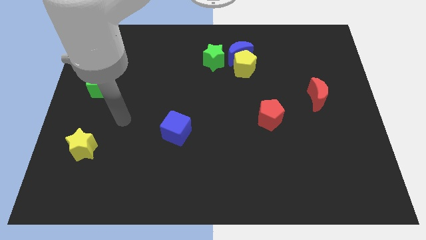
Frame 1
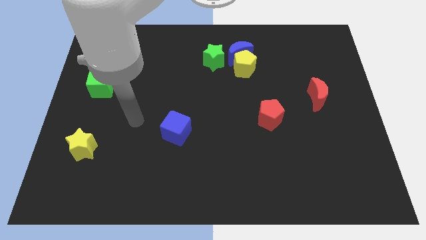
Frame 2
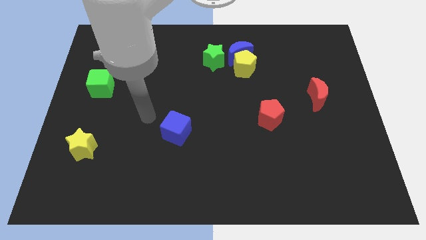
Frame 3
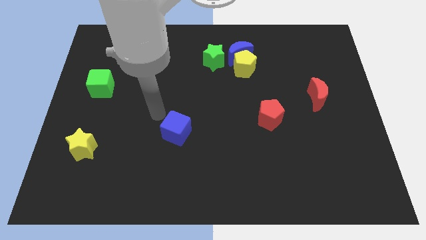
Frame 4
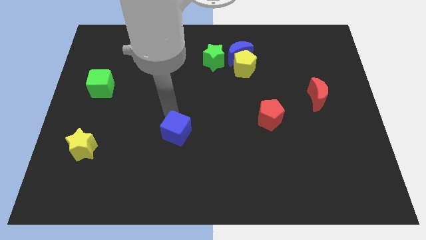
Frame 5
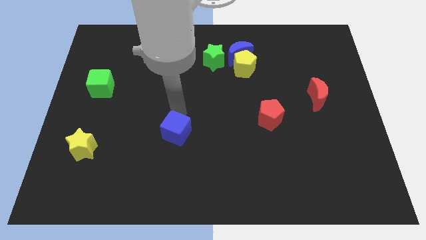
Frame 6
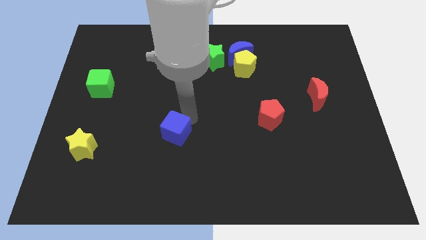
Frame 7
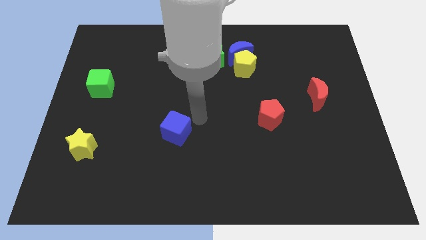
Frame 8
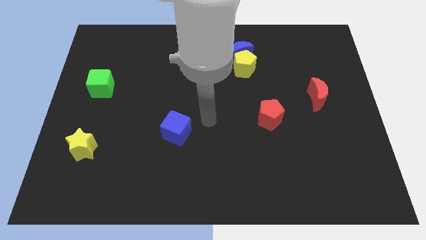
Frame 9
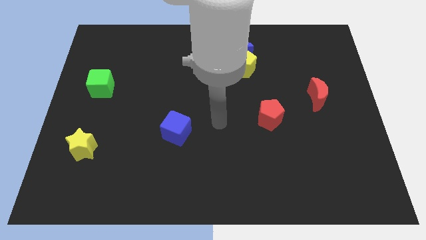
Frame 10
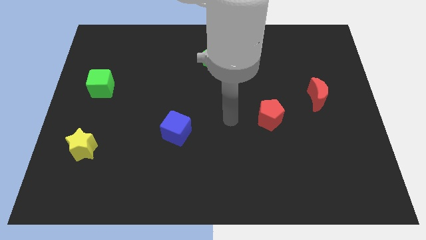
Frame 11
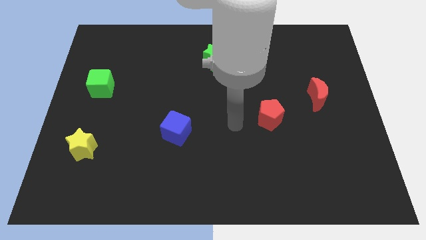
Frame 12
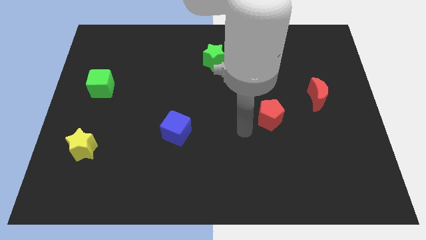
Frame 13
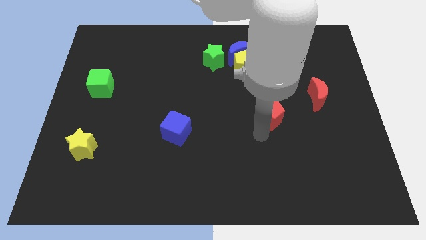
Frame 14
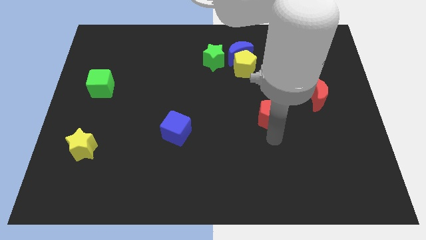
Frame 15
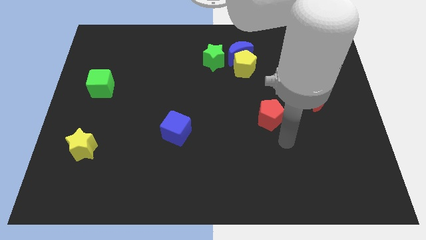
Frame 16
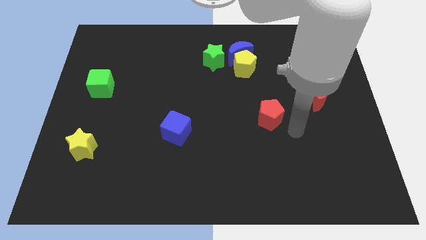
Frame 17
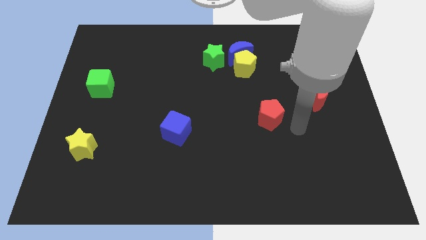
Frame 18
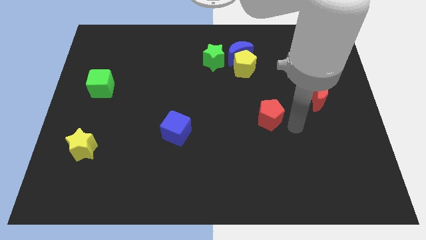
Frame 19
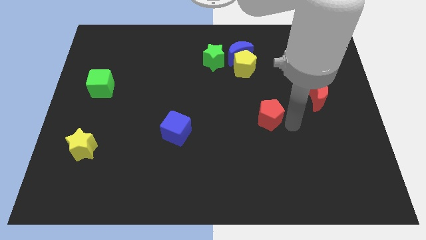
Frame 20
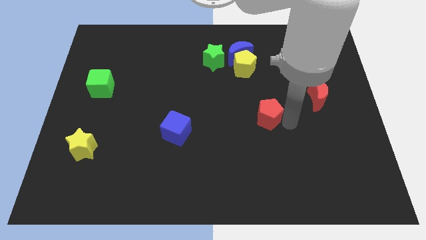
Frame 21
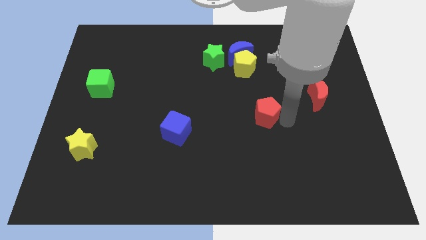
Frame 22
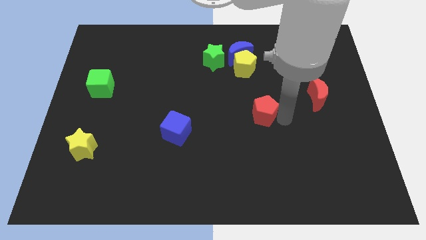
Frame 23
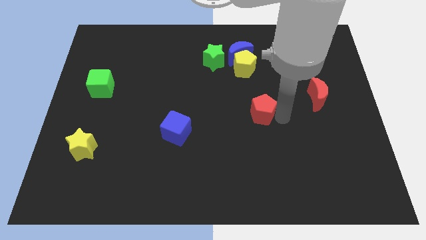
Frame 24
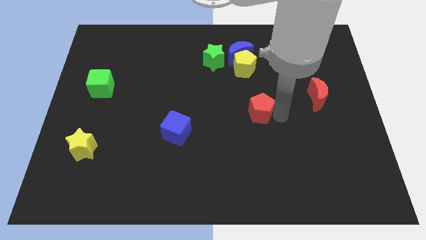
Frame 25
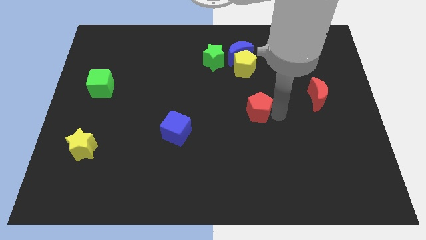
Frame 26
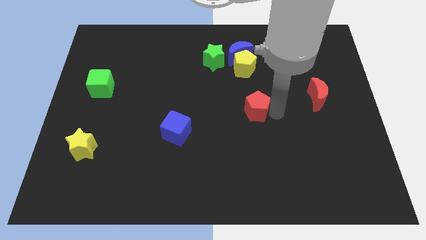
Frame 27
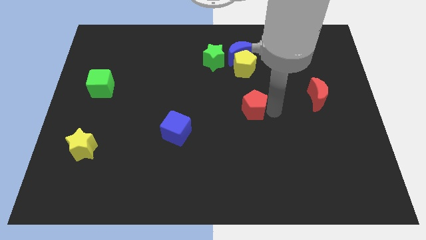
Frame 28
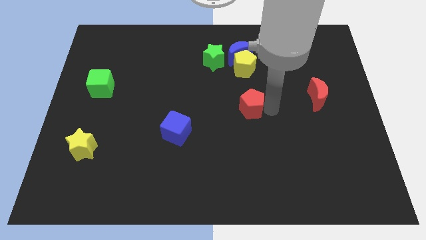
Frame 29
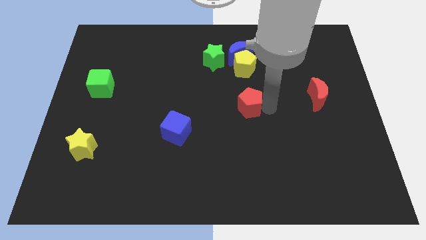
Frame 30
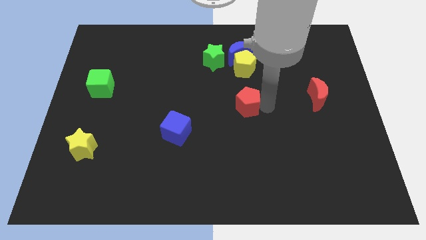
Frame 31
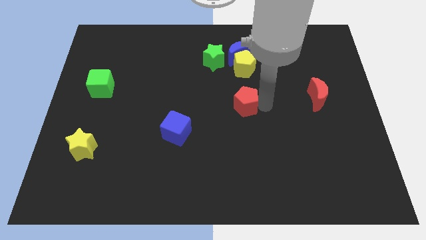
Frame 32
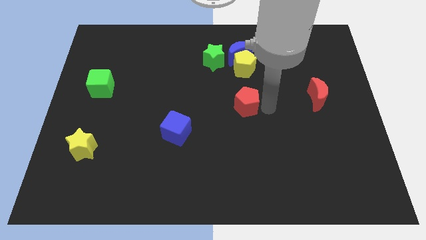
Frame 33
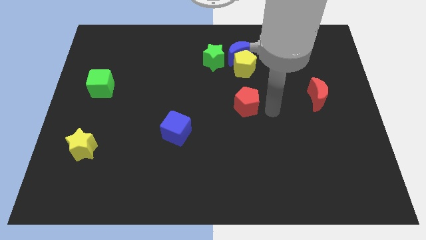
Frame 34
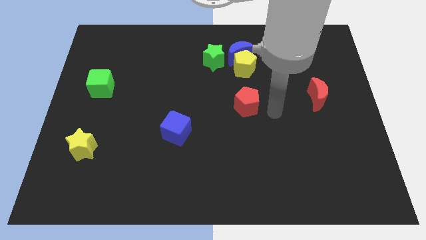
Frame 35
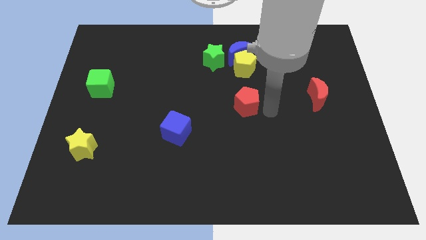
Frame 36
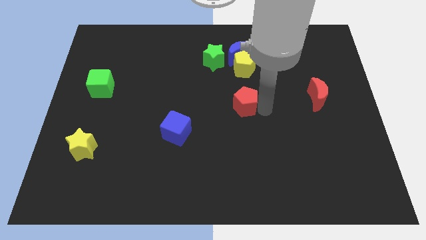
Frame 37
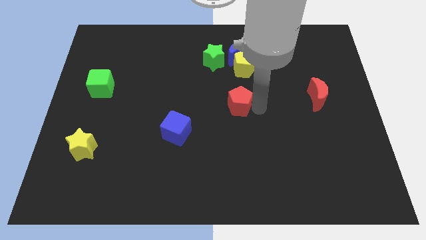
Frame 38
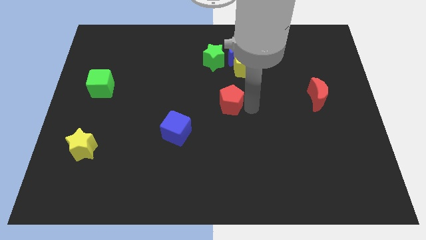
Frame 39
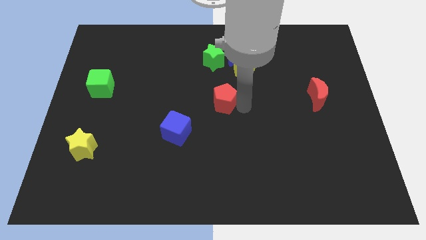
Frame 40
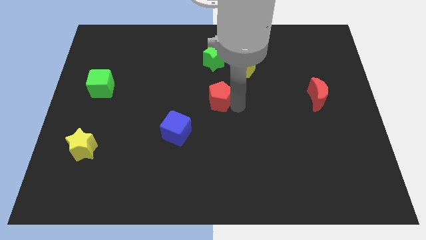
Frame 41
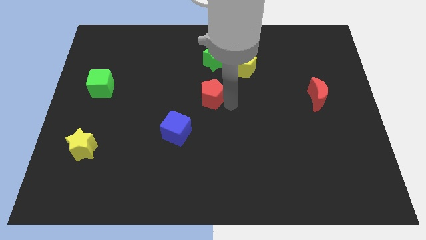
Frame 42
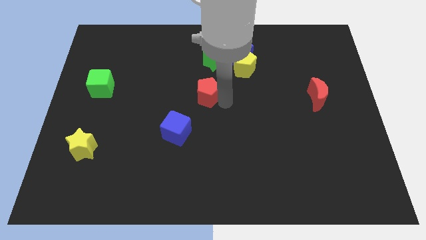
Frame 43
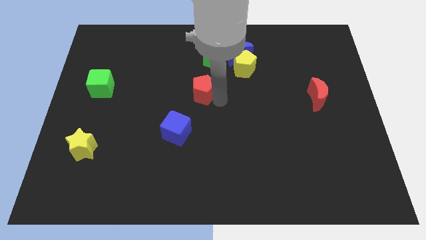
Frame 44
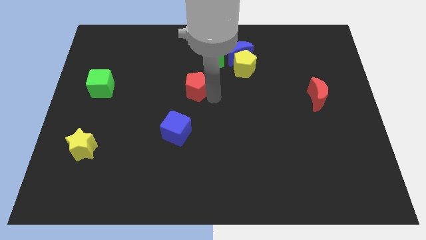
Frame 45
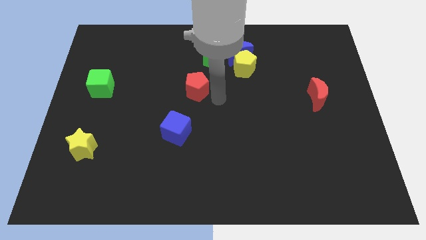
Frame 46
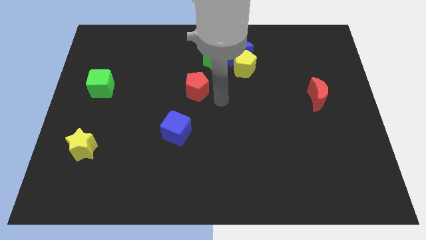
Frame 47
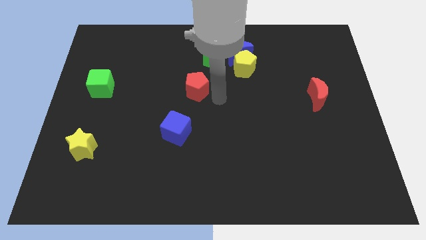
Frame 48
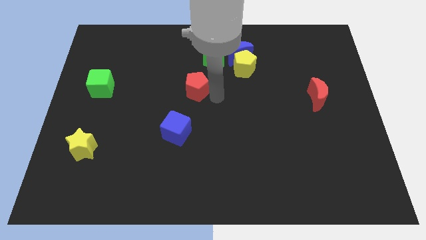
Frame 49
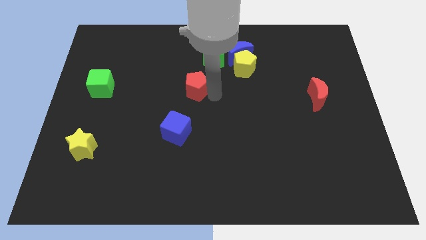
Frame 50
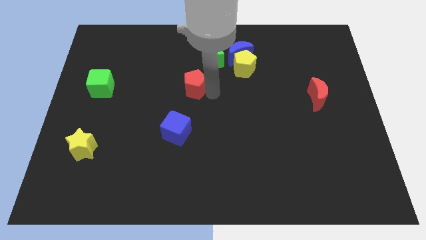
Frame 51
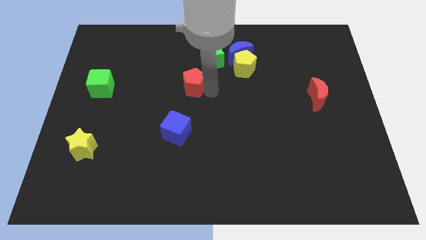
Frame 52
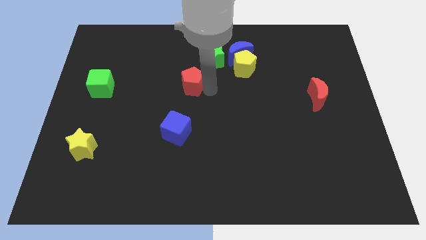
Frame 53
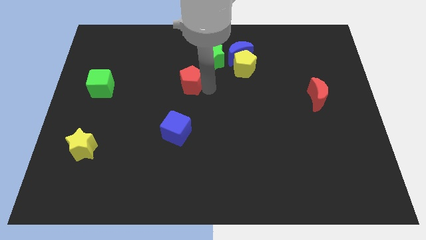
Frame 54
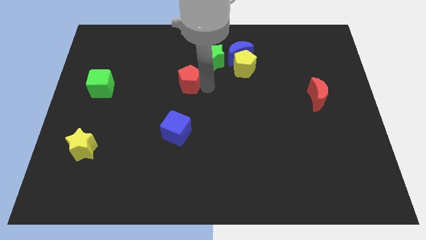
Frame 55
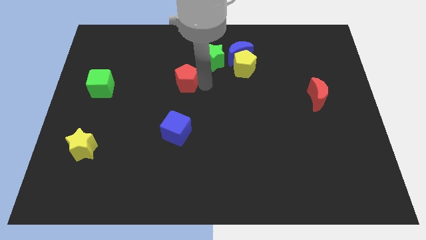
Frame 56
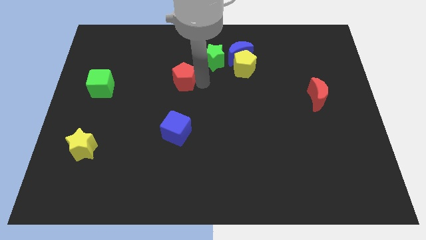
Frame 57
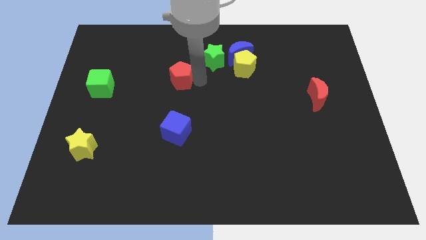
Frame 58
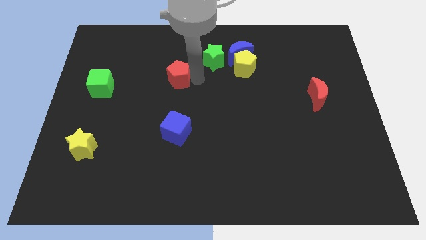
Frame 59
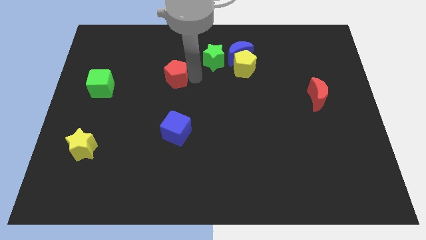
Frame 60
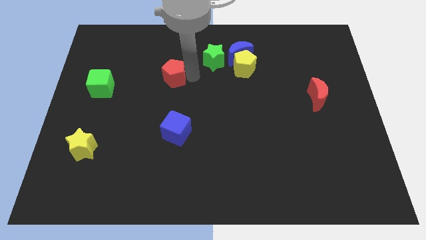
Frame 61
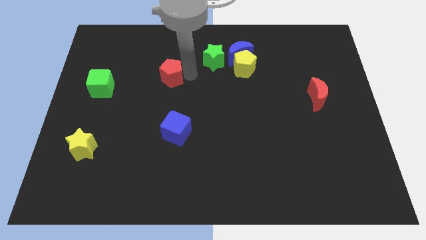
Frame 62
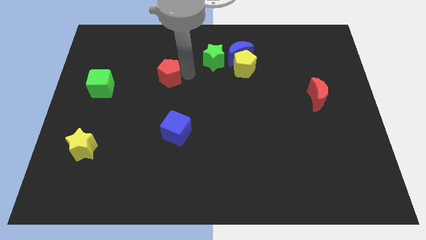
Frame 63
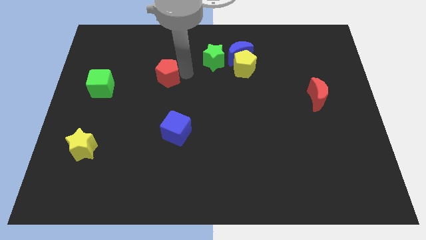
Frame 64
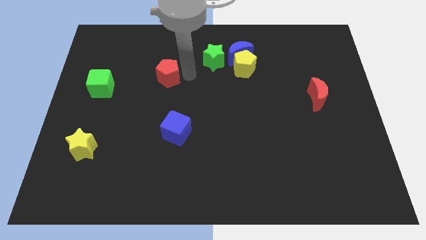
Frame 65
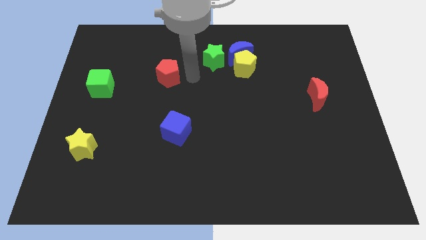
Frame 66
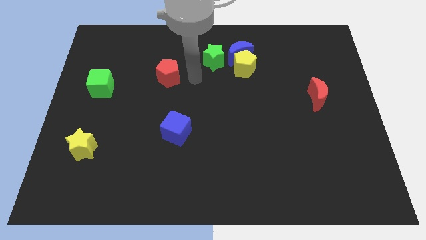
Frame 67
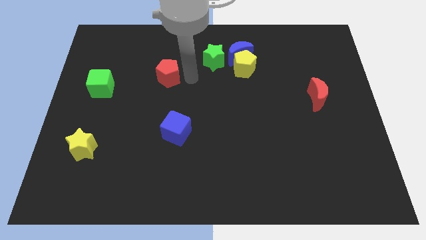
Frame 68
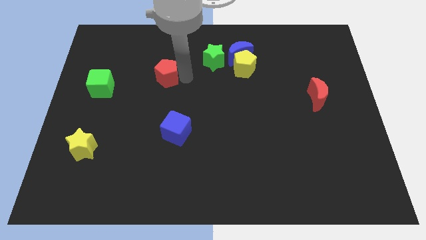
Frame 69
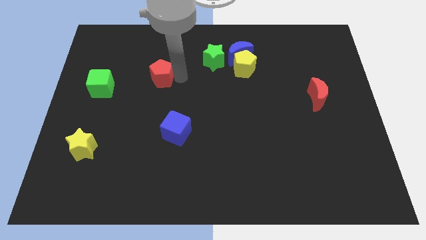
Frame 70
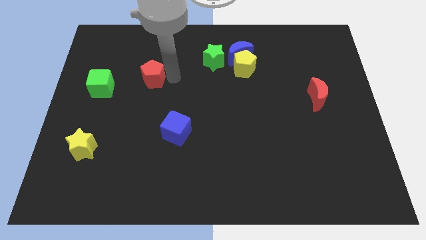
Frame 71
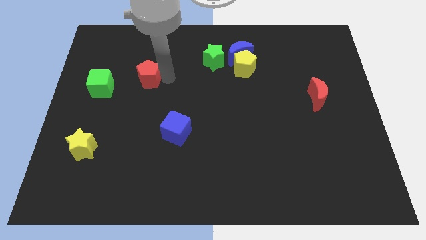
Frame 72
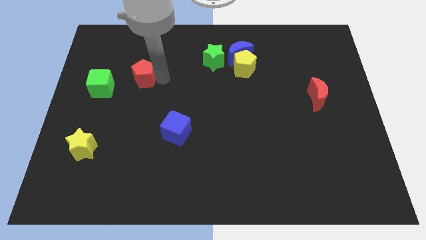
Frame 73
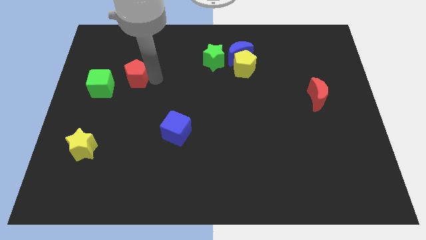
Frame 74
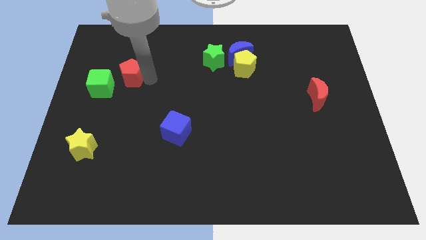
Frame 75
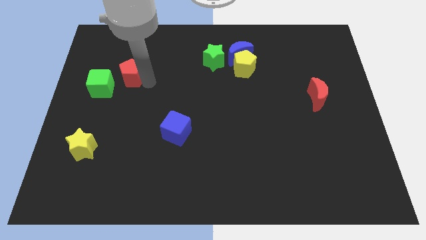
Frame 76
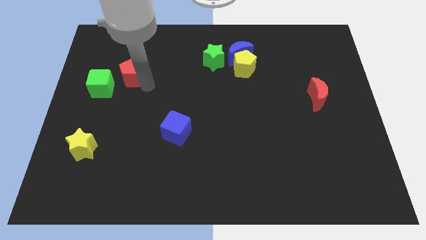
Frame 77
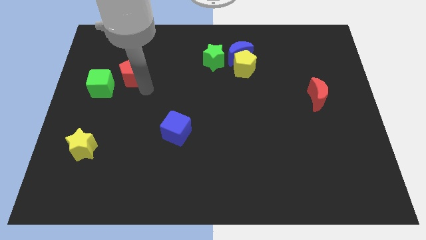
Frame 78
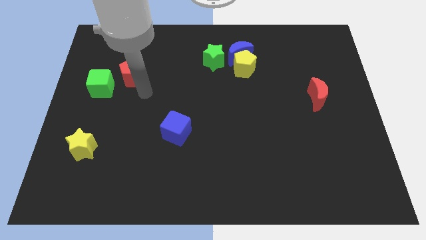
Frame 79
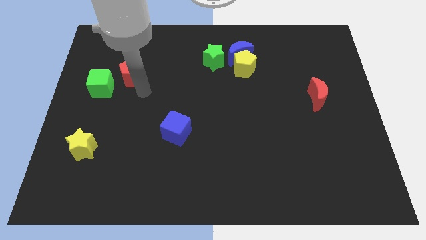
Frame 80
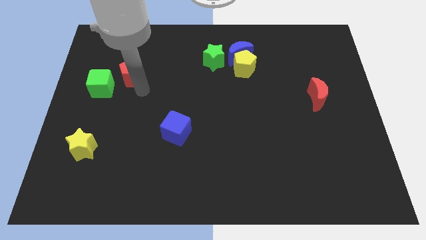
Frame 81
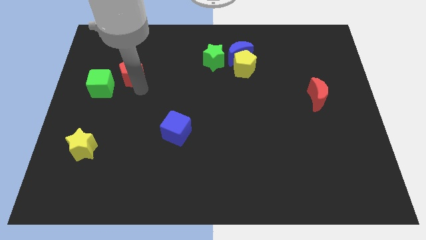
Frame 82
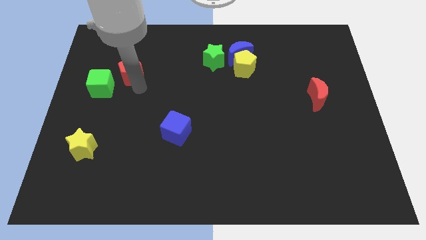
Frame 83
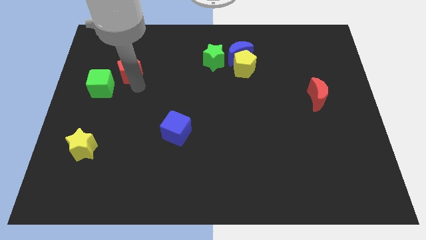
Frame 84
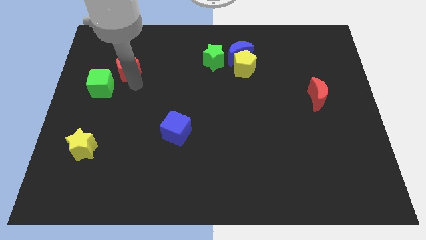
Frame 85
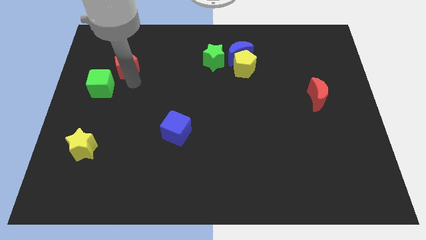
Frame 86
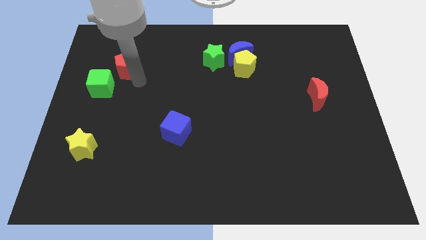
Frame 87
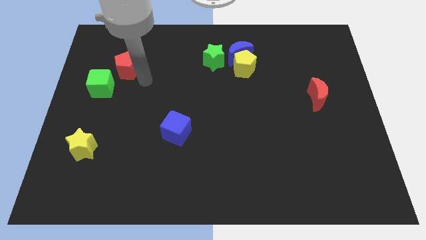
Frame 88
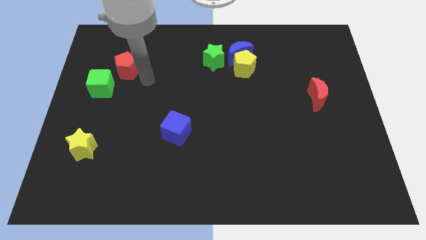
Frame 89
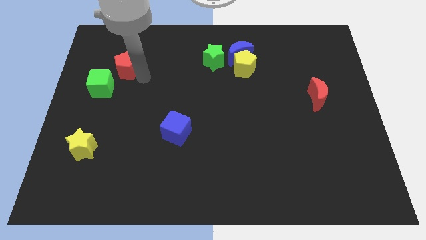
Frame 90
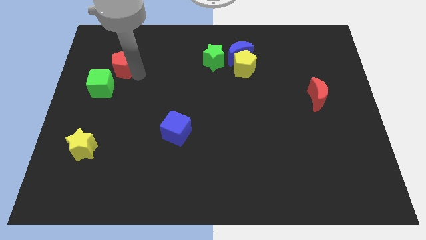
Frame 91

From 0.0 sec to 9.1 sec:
put the red pentagon above the green cube
